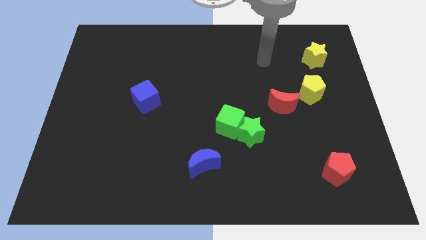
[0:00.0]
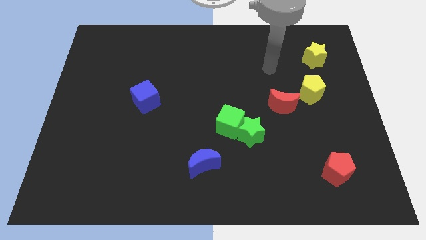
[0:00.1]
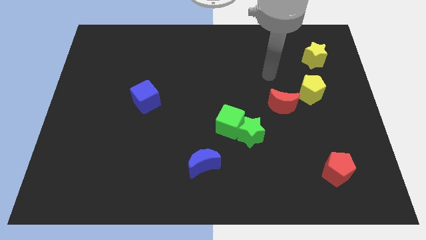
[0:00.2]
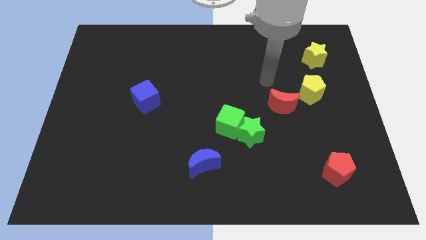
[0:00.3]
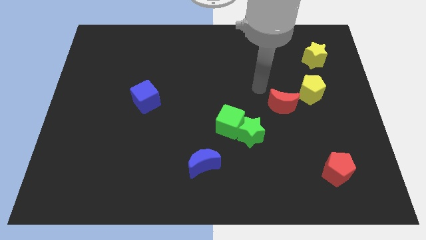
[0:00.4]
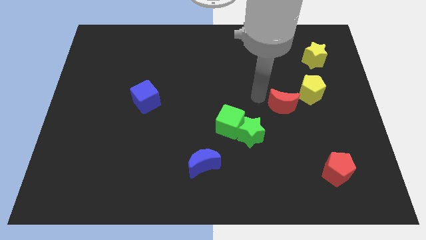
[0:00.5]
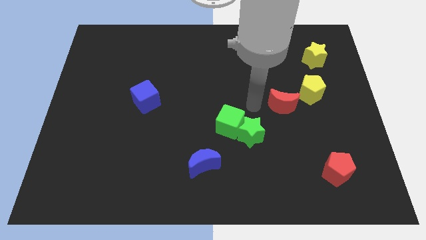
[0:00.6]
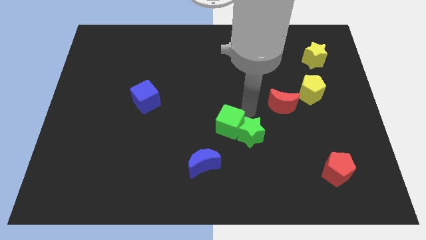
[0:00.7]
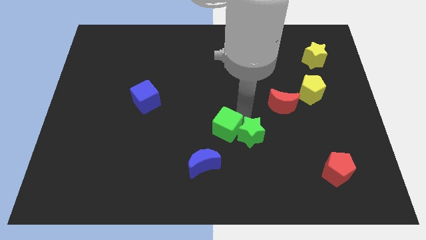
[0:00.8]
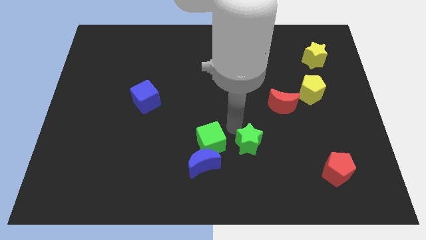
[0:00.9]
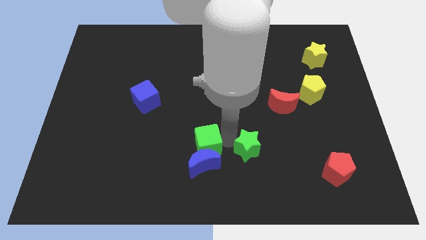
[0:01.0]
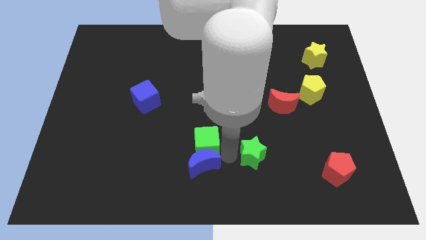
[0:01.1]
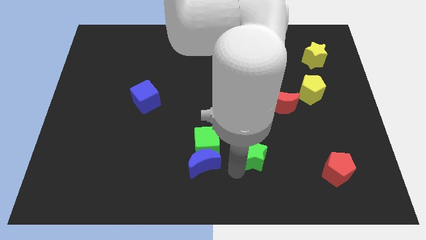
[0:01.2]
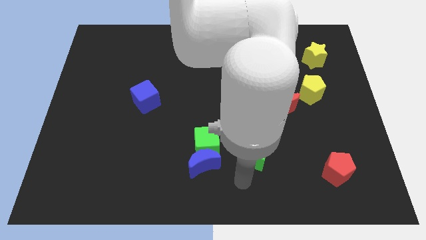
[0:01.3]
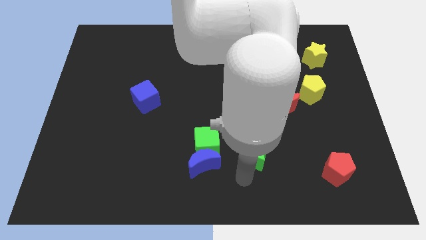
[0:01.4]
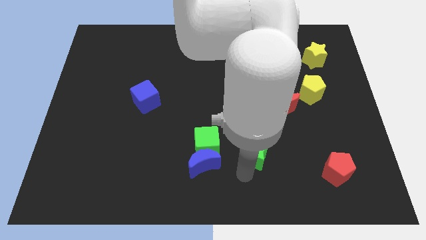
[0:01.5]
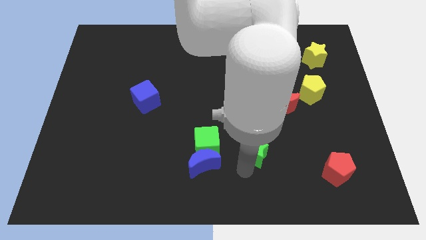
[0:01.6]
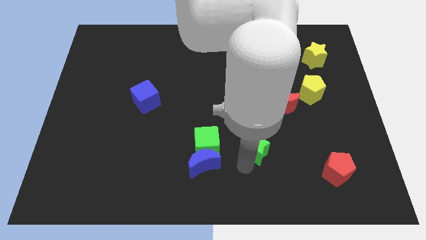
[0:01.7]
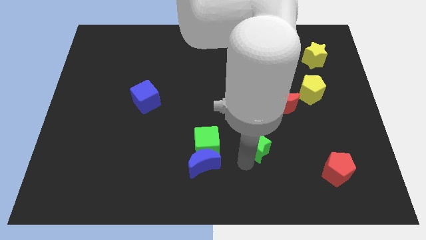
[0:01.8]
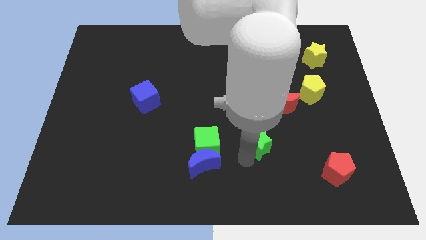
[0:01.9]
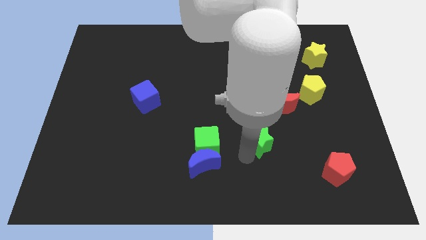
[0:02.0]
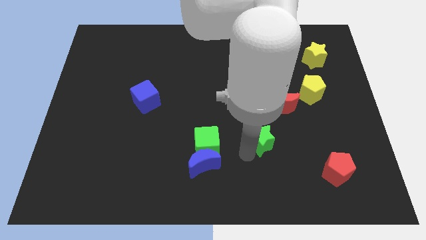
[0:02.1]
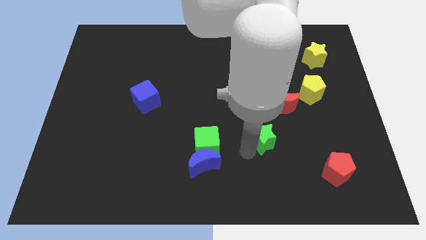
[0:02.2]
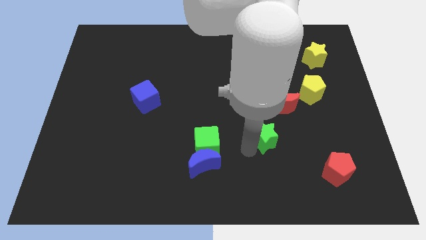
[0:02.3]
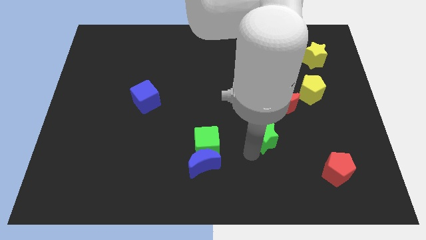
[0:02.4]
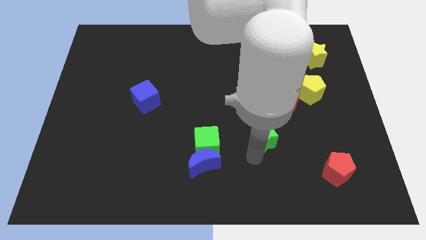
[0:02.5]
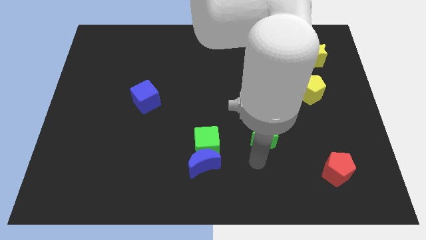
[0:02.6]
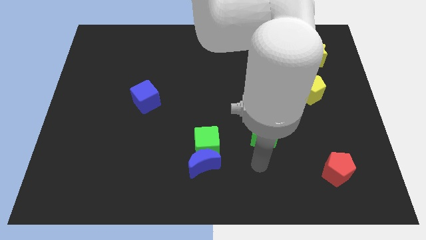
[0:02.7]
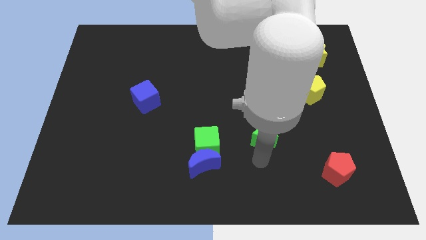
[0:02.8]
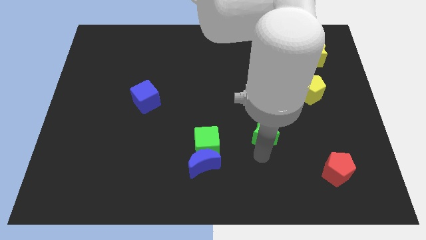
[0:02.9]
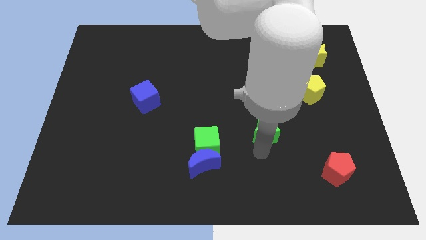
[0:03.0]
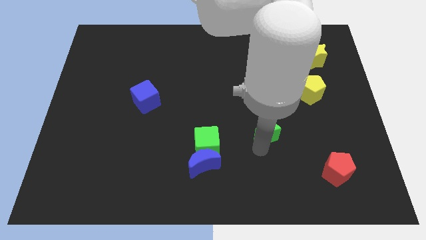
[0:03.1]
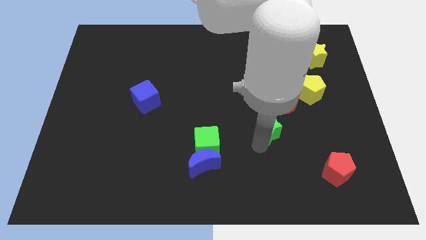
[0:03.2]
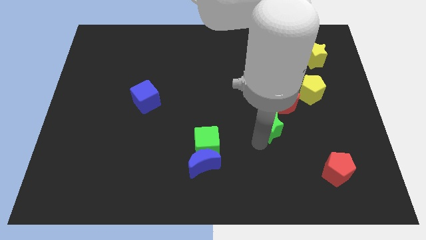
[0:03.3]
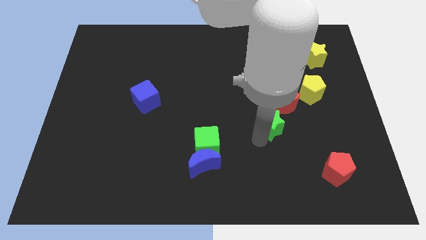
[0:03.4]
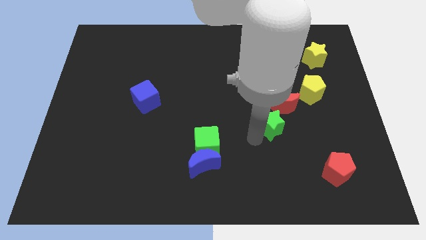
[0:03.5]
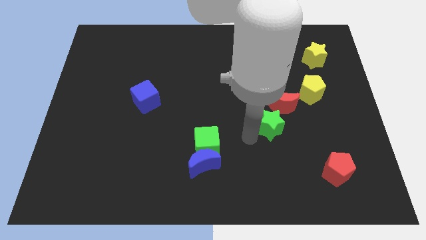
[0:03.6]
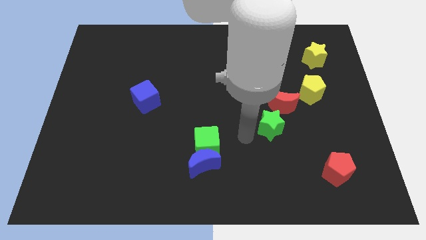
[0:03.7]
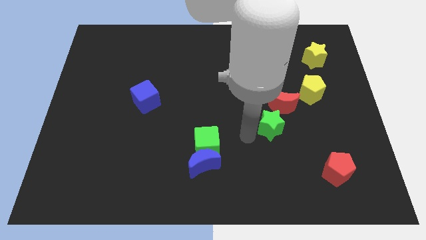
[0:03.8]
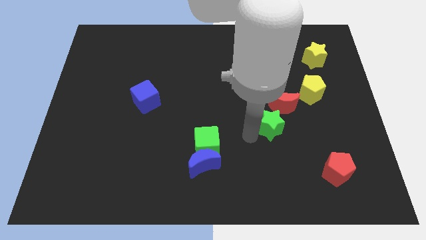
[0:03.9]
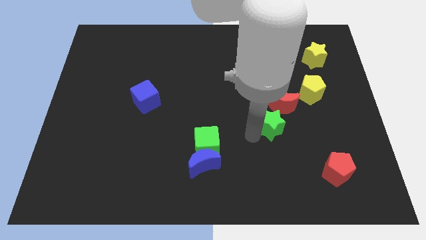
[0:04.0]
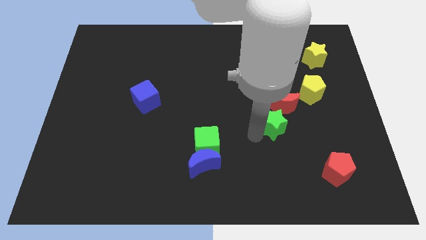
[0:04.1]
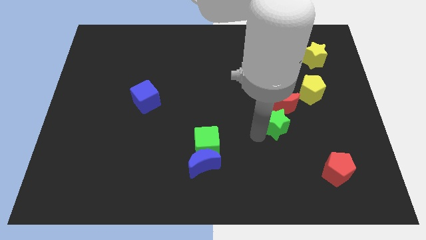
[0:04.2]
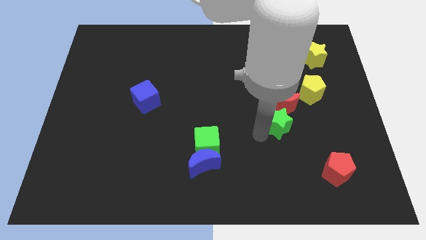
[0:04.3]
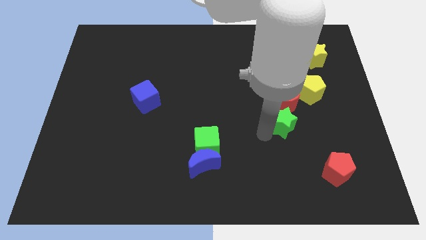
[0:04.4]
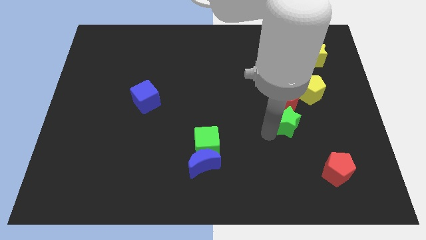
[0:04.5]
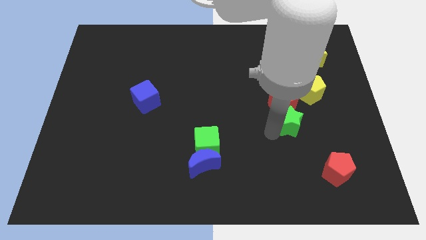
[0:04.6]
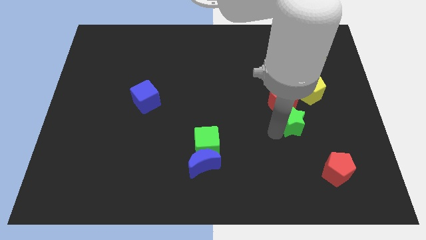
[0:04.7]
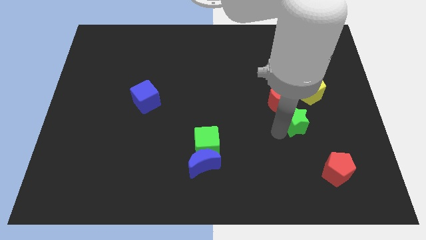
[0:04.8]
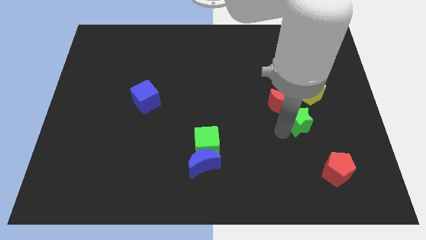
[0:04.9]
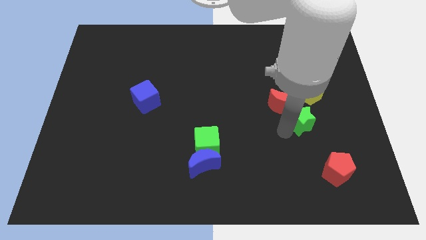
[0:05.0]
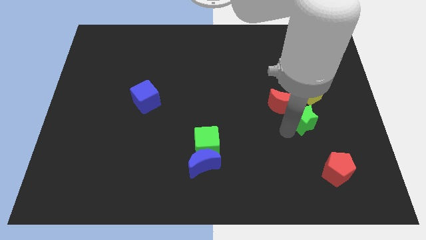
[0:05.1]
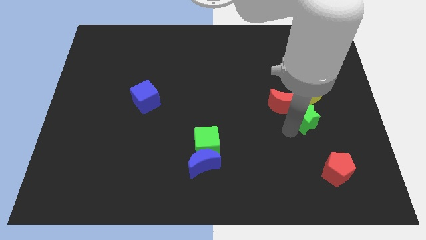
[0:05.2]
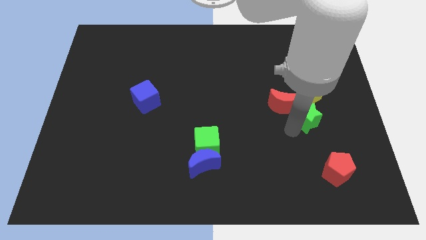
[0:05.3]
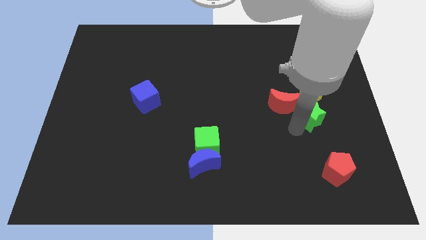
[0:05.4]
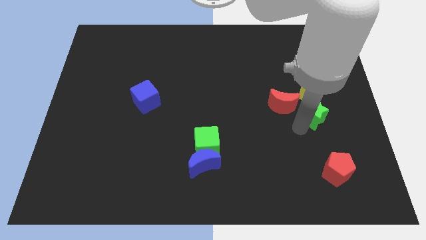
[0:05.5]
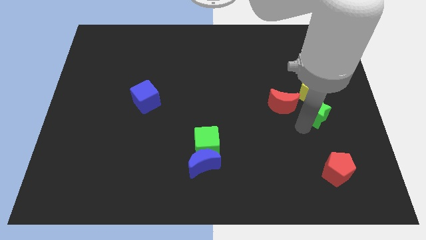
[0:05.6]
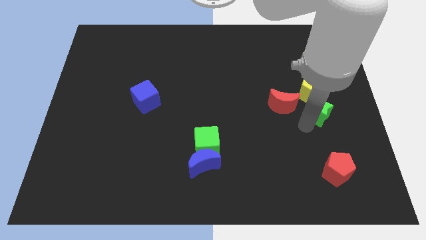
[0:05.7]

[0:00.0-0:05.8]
put the green star next to the yellow pentagon
